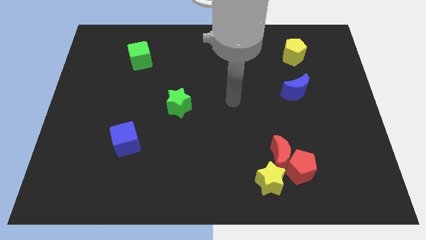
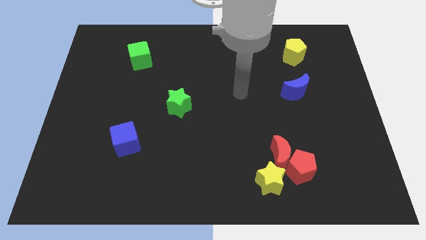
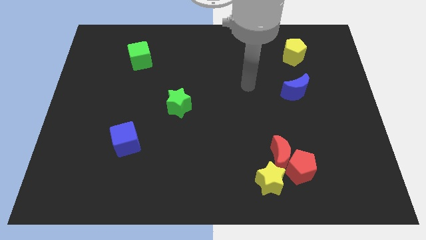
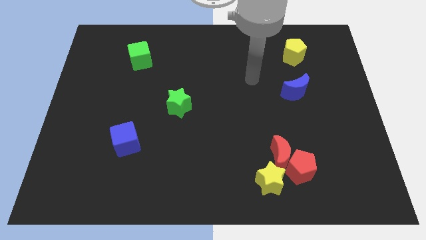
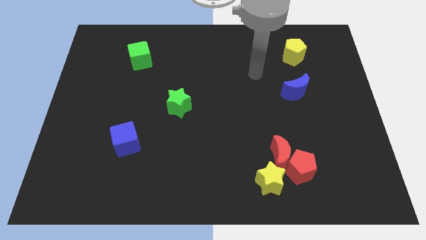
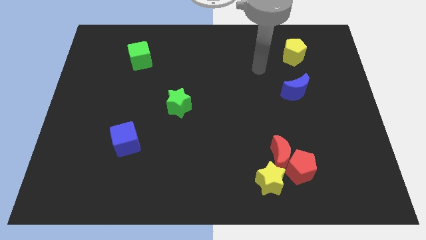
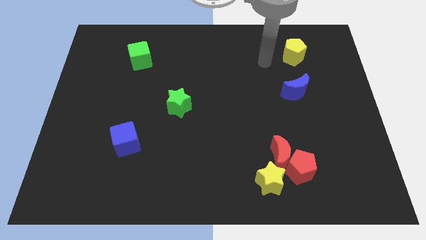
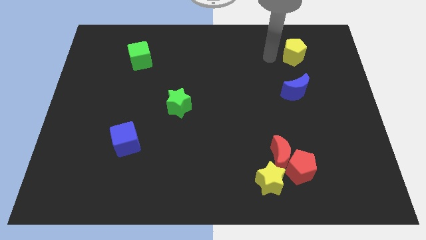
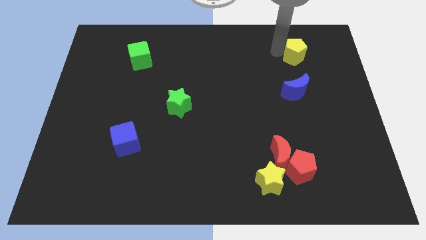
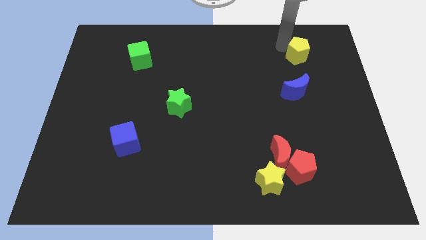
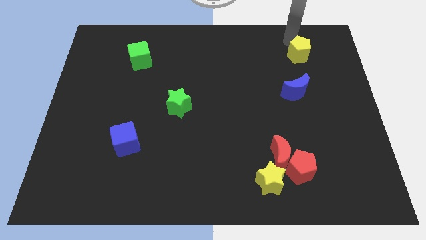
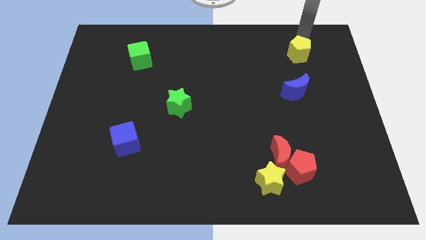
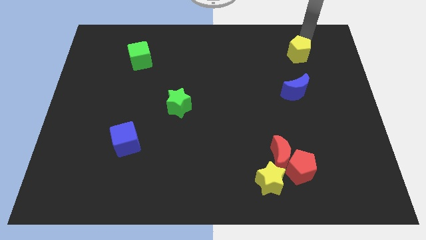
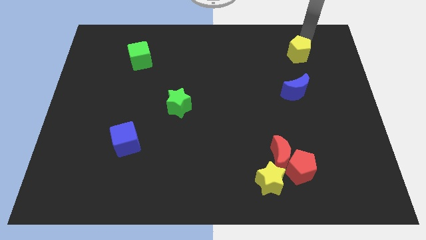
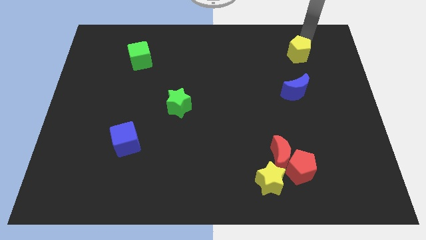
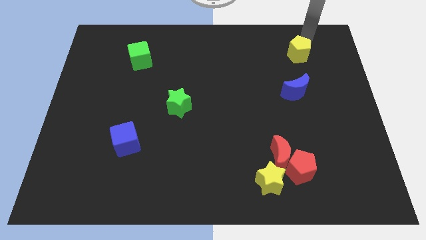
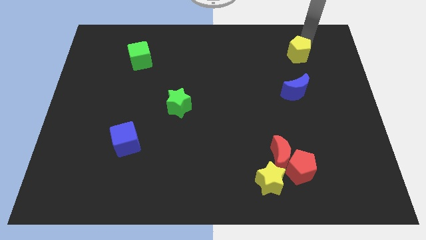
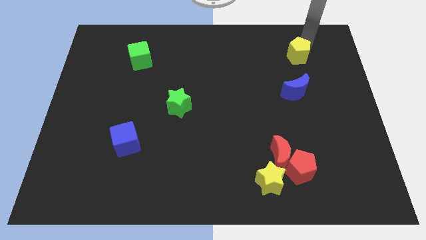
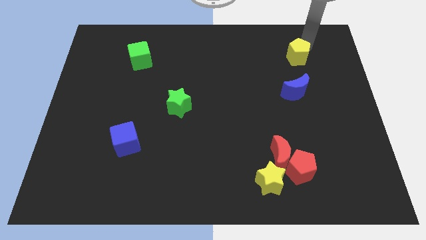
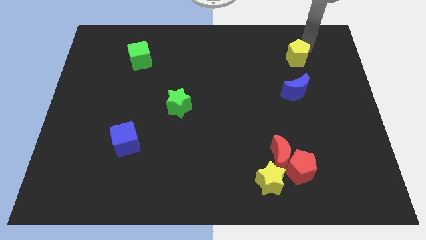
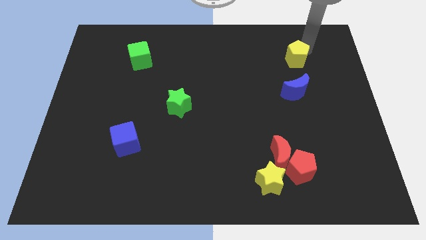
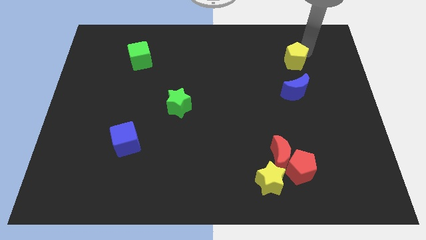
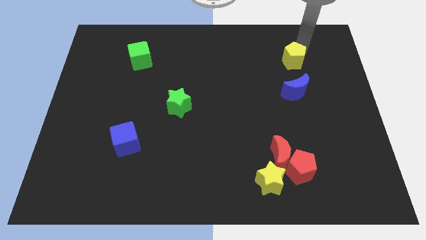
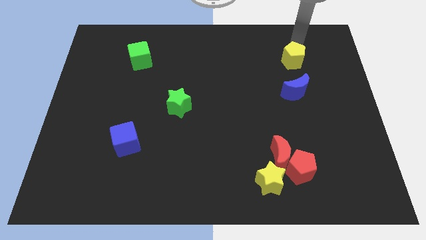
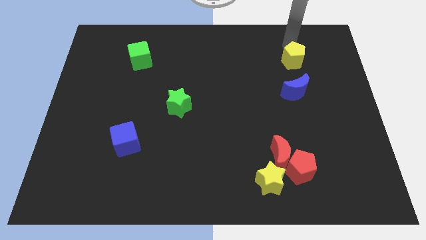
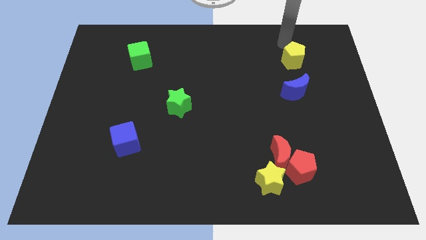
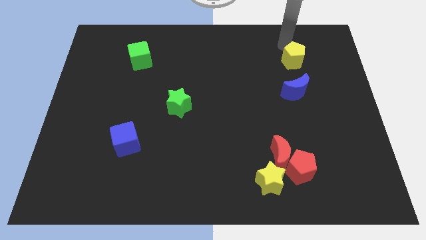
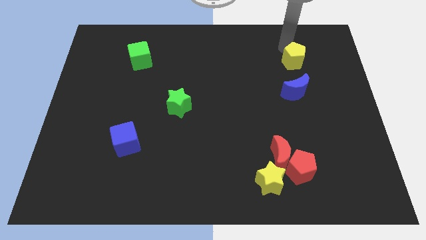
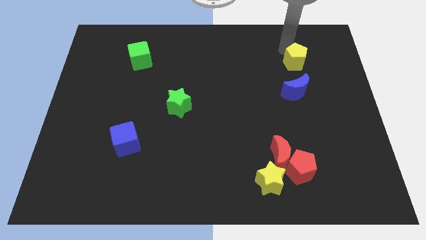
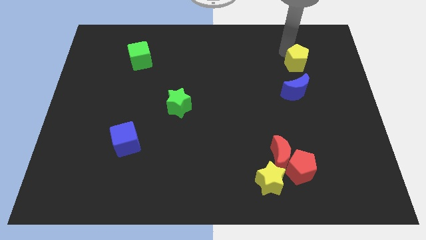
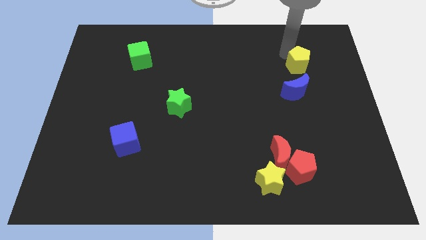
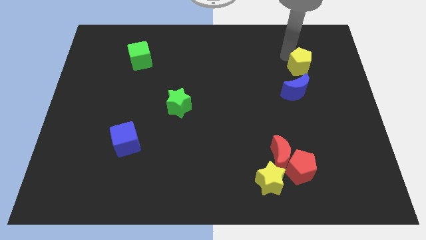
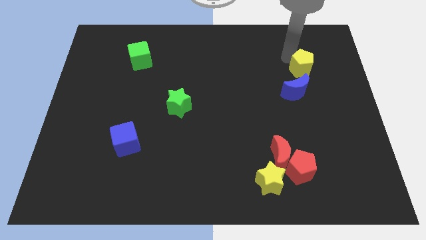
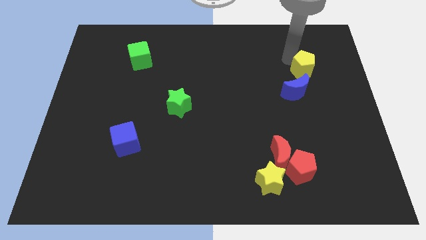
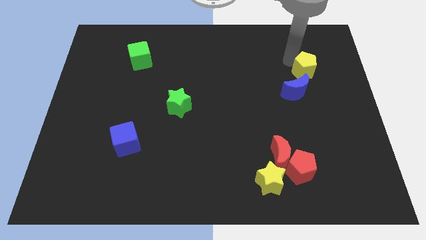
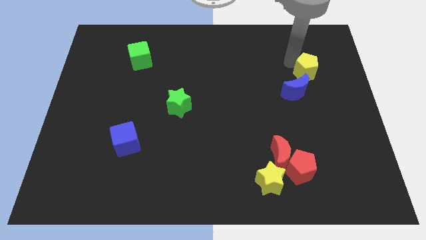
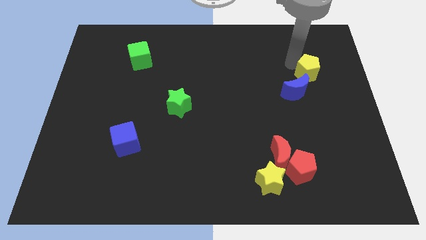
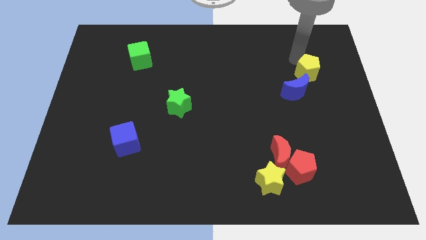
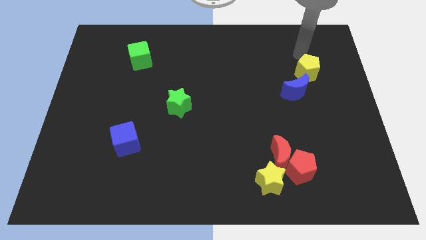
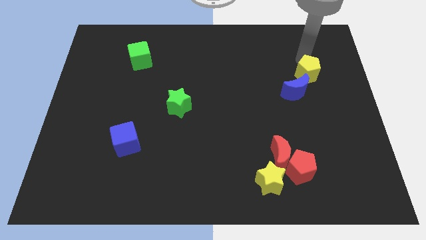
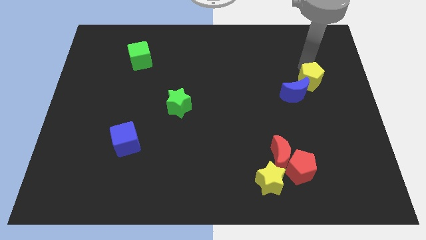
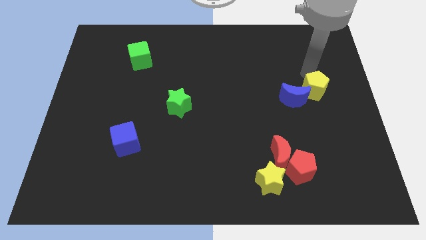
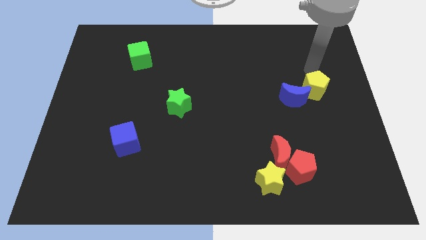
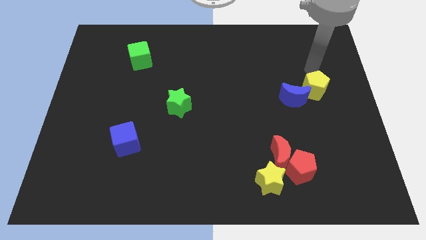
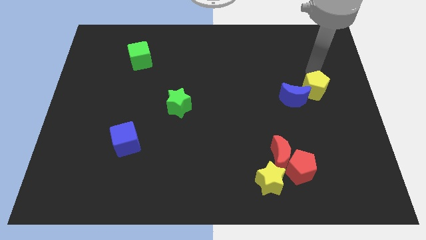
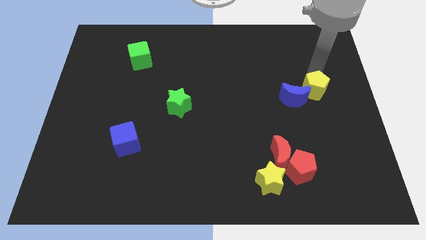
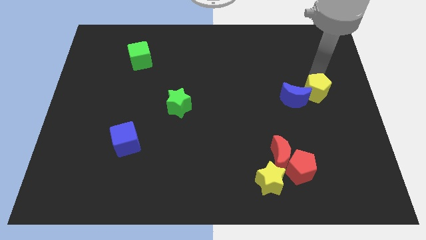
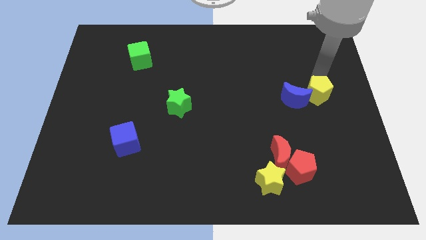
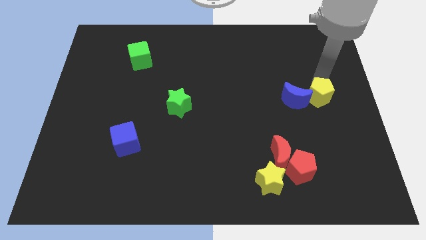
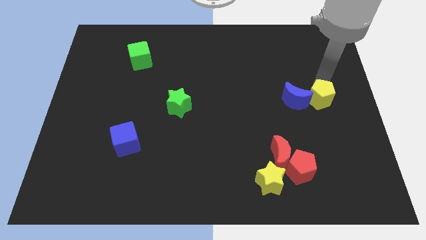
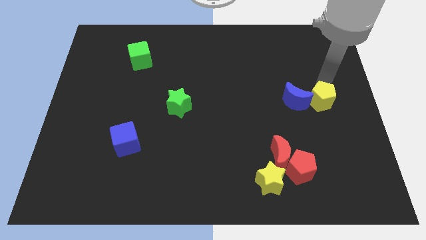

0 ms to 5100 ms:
put the yellow pentagon diagonally down and to the right of the blue moon

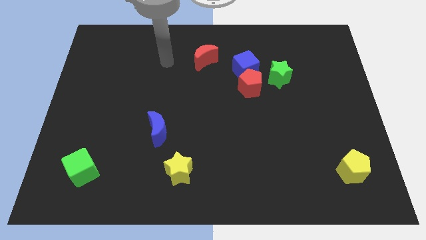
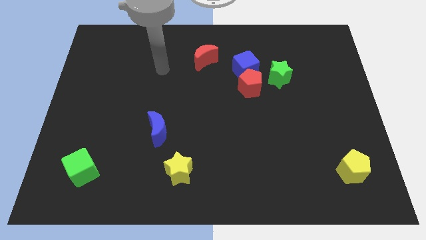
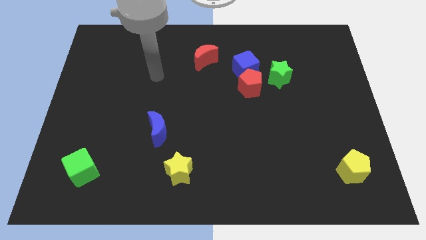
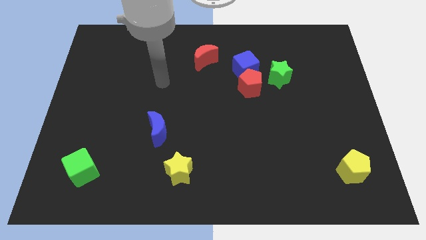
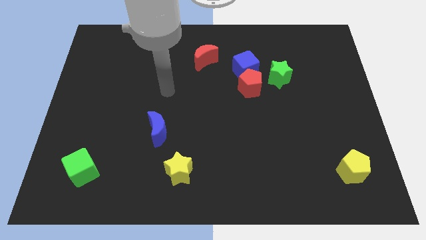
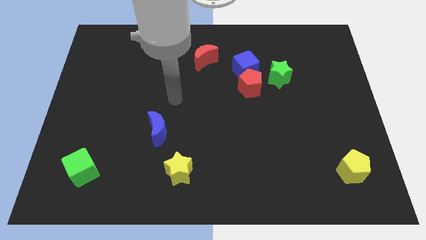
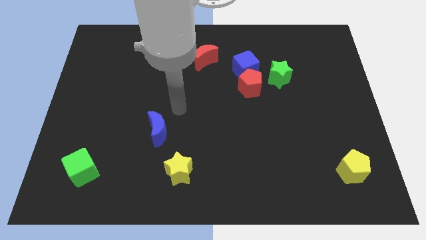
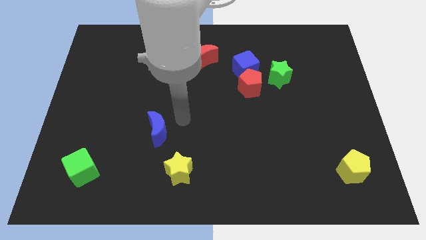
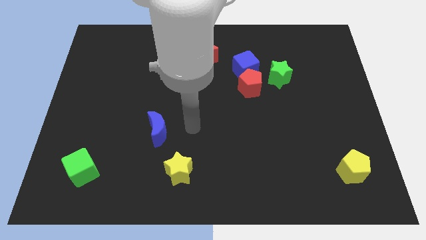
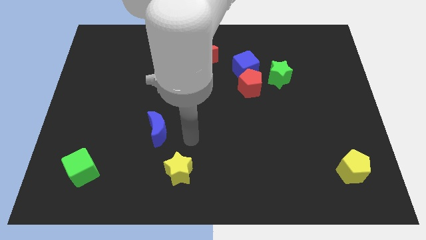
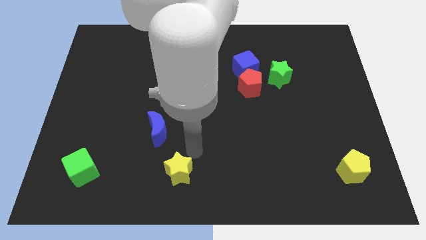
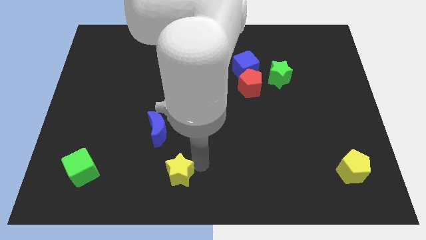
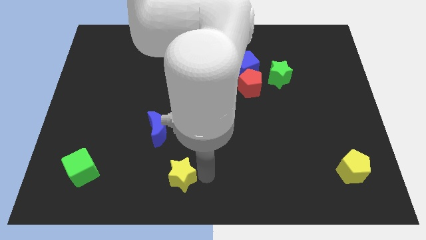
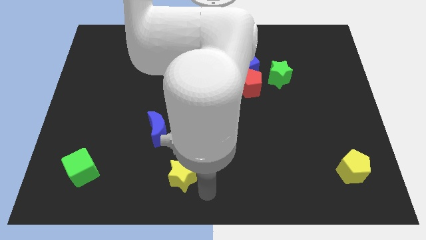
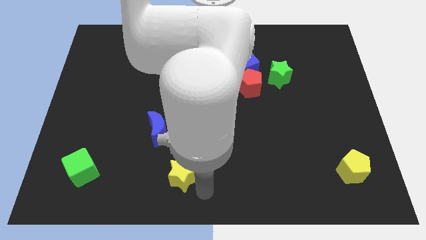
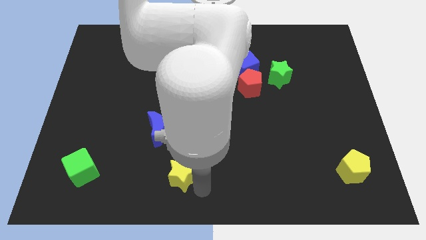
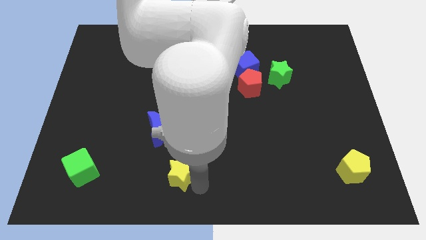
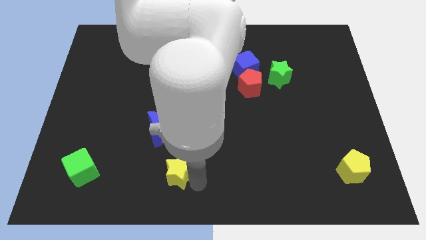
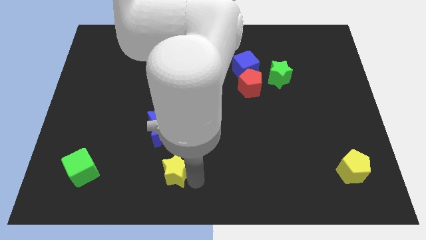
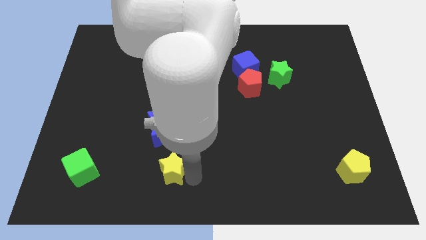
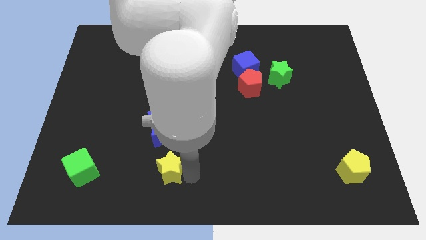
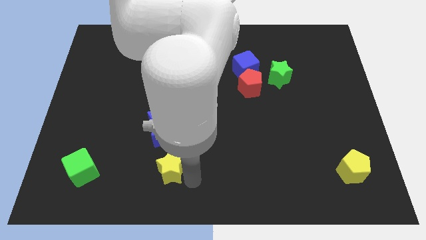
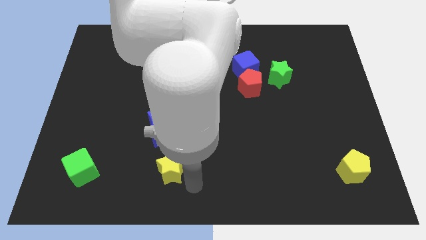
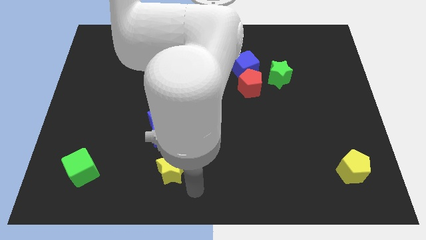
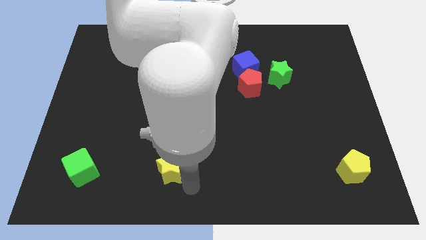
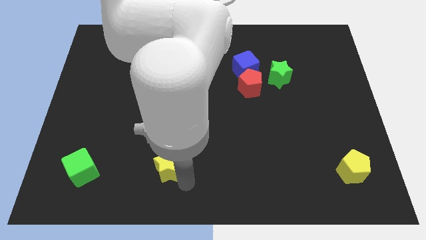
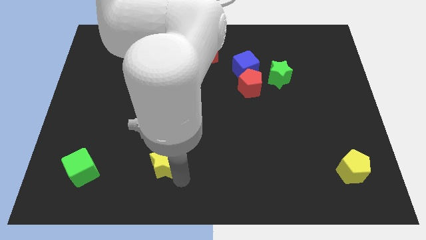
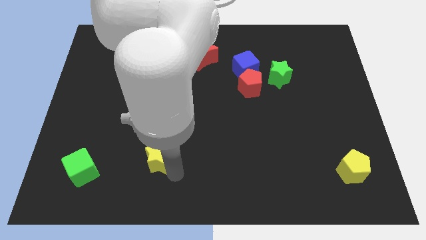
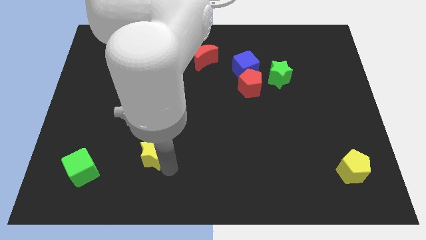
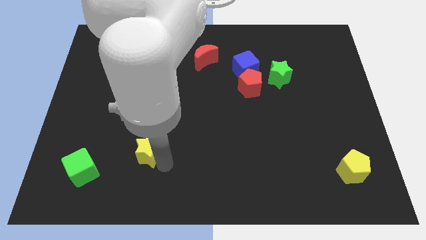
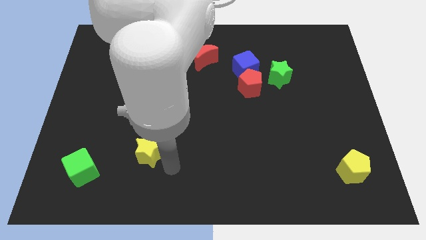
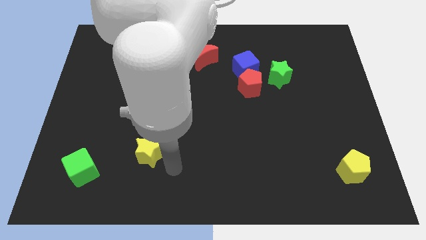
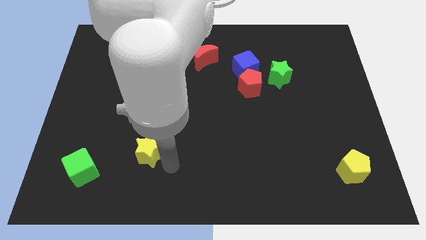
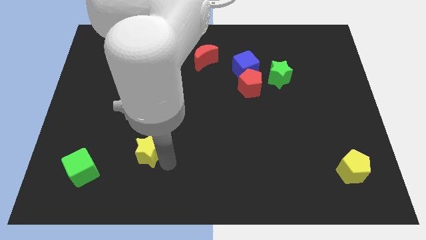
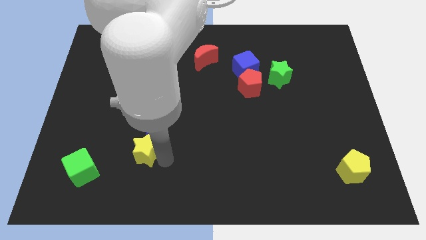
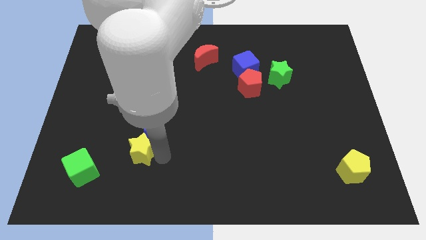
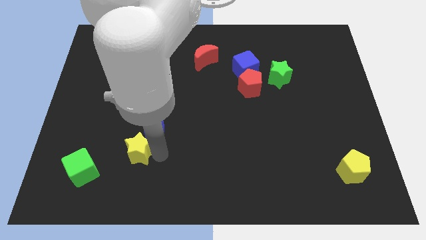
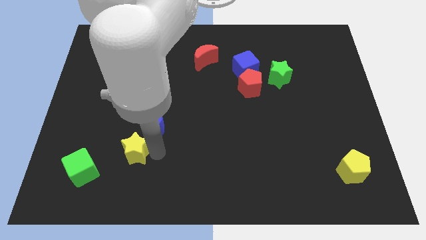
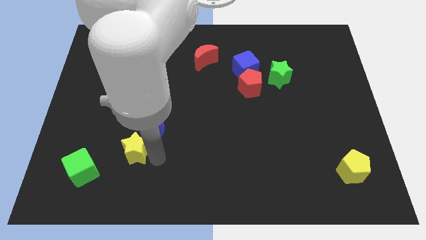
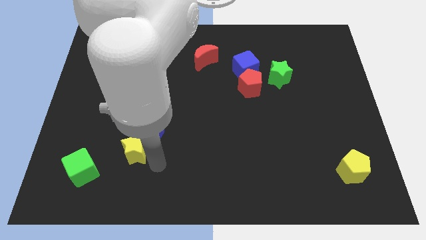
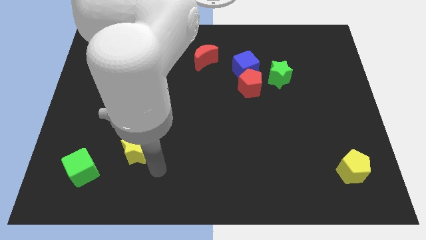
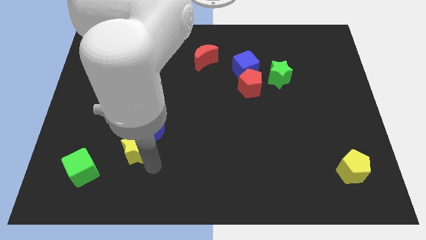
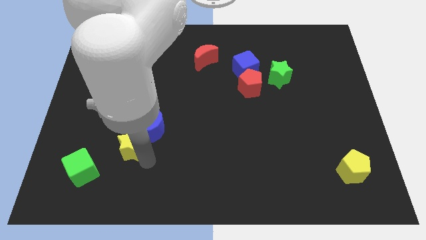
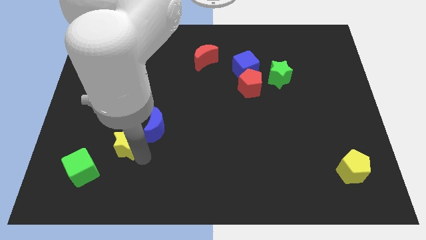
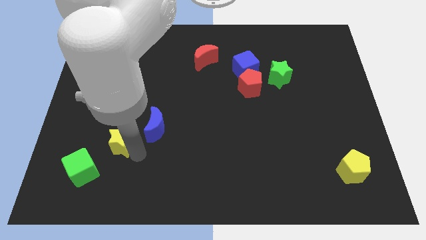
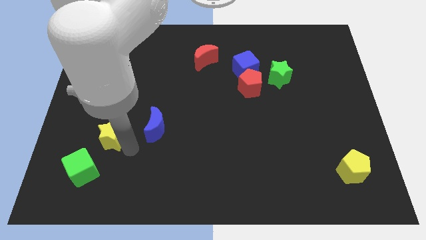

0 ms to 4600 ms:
push the yellow star to the top of the green cube
